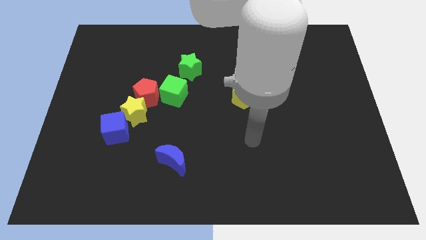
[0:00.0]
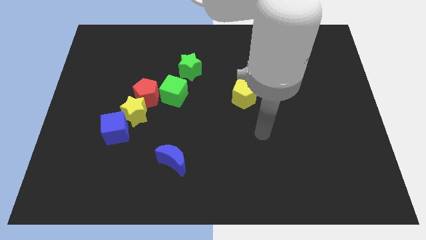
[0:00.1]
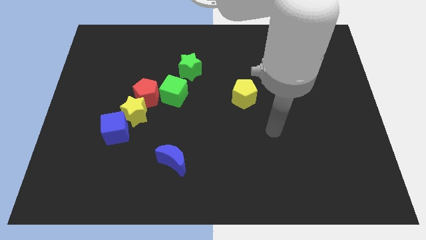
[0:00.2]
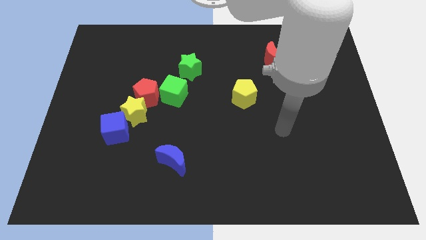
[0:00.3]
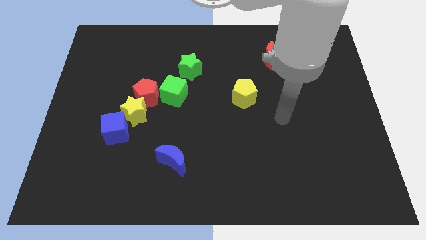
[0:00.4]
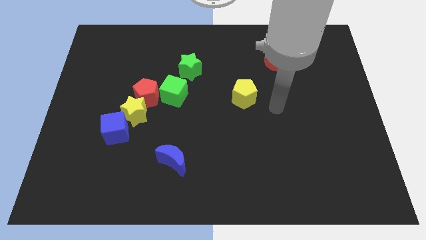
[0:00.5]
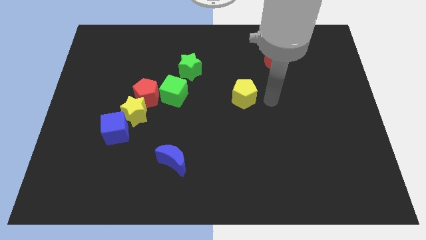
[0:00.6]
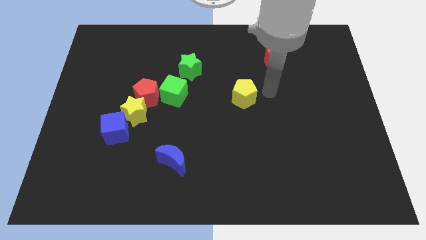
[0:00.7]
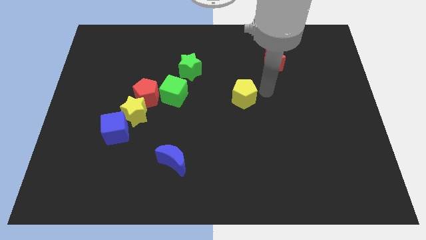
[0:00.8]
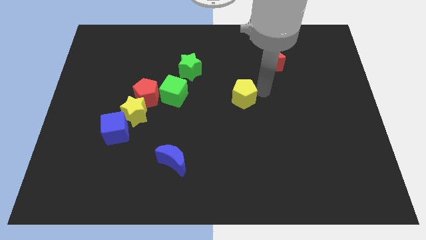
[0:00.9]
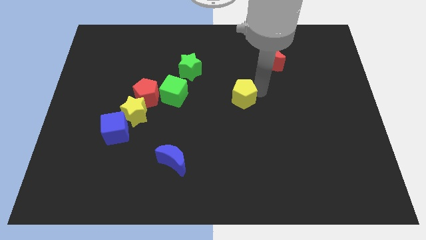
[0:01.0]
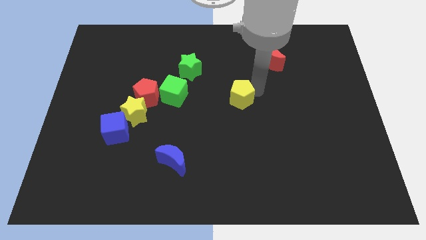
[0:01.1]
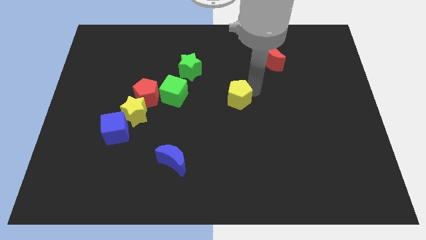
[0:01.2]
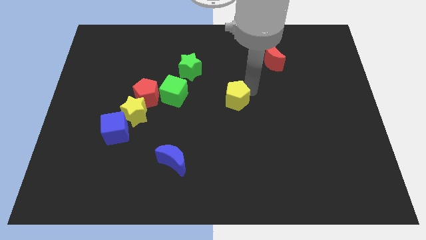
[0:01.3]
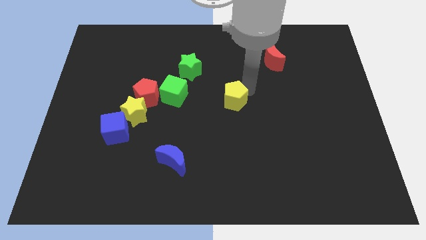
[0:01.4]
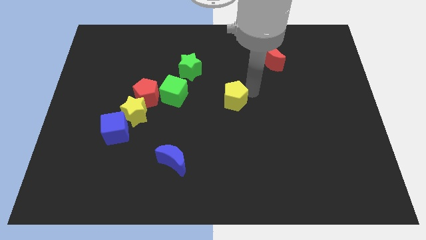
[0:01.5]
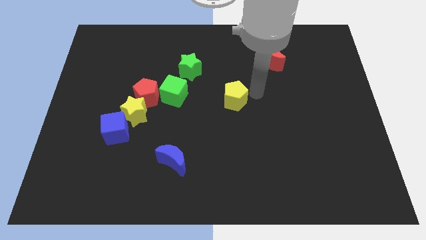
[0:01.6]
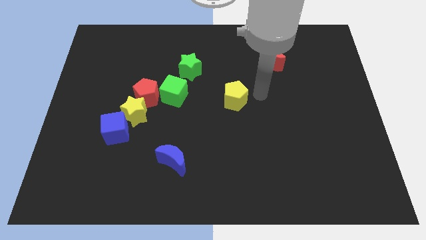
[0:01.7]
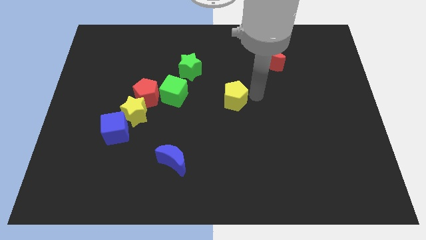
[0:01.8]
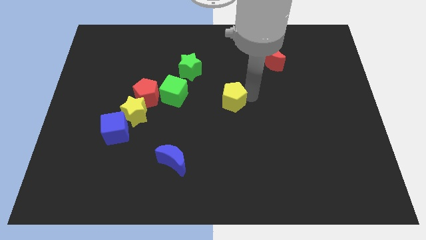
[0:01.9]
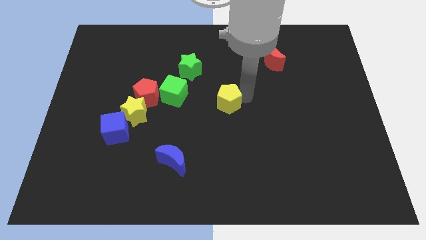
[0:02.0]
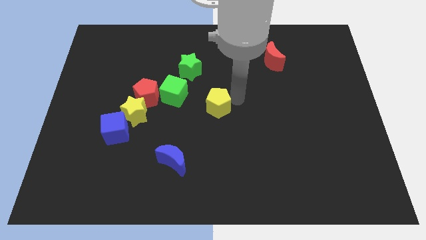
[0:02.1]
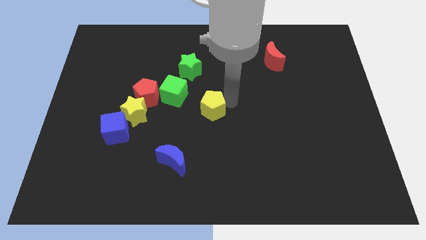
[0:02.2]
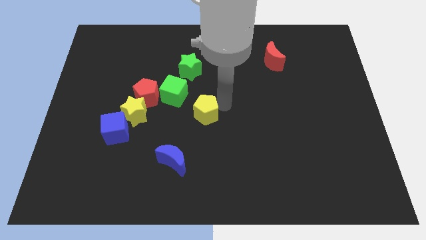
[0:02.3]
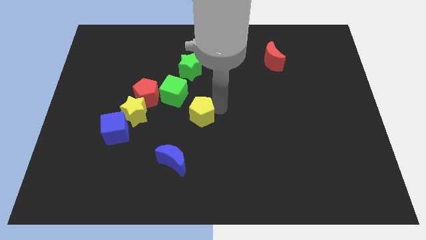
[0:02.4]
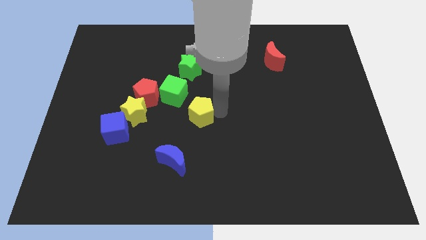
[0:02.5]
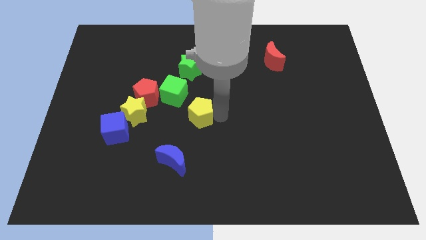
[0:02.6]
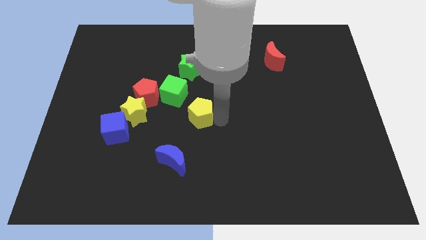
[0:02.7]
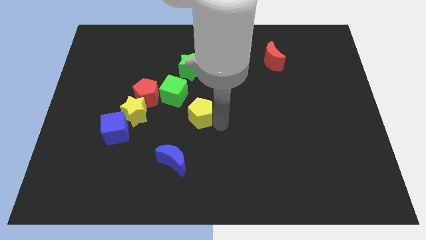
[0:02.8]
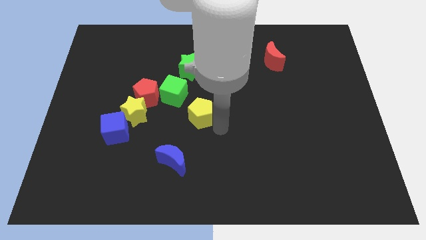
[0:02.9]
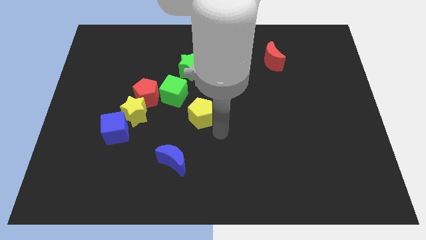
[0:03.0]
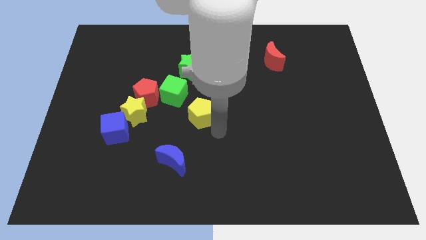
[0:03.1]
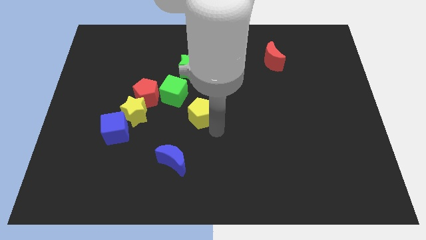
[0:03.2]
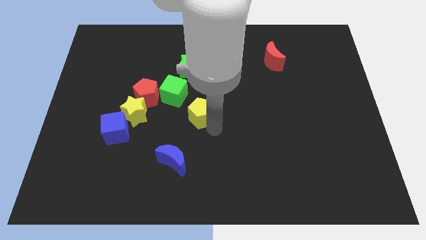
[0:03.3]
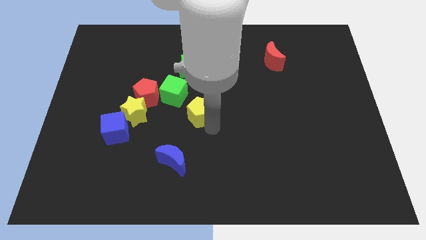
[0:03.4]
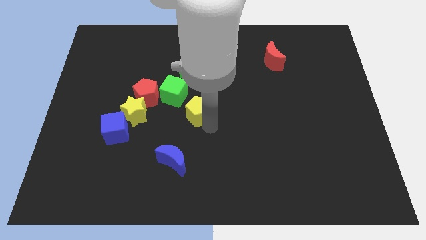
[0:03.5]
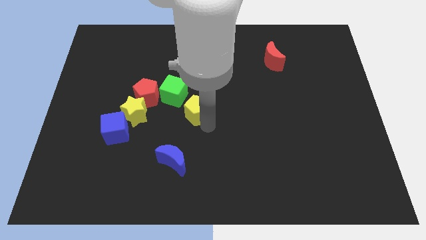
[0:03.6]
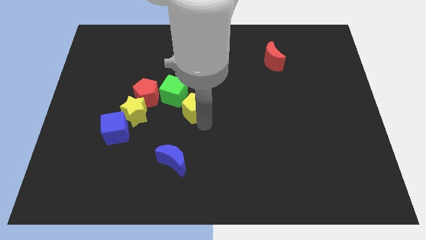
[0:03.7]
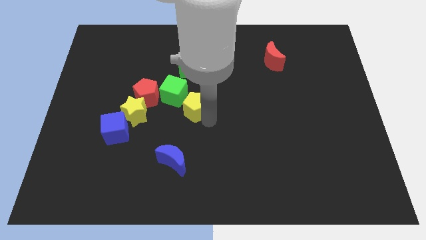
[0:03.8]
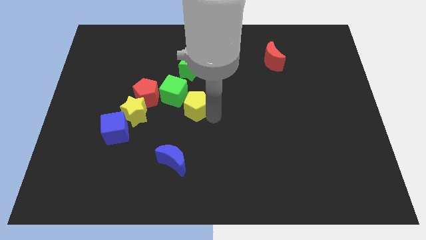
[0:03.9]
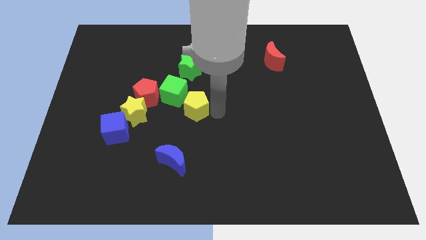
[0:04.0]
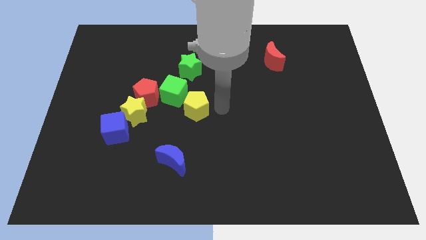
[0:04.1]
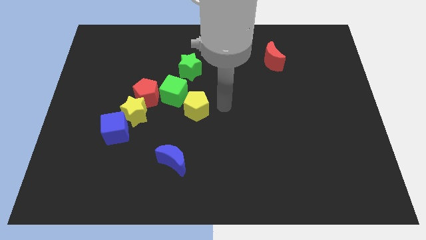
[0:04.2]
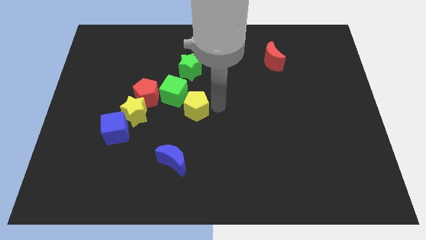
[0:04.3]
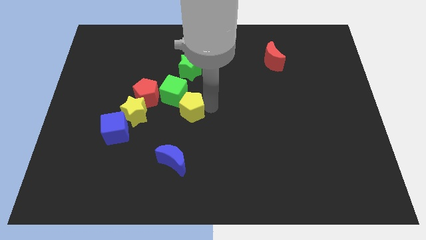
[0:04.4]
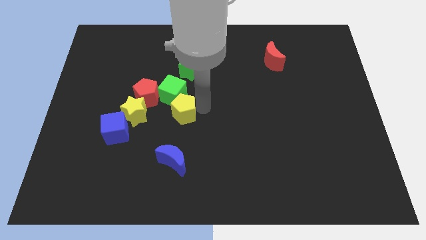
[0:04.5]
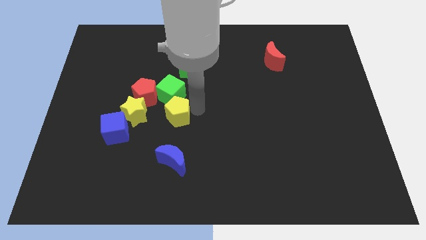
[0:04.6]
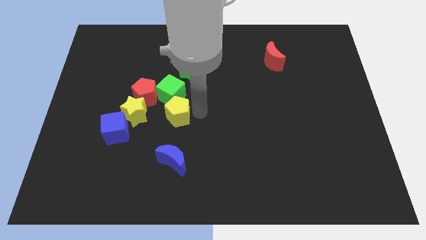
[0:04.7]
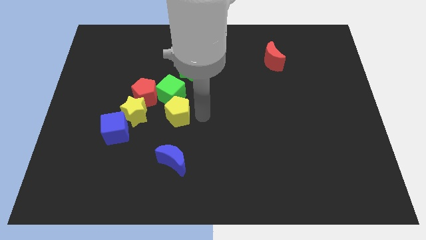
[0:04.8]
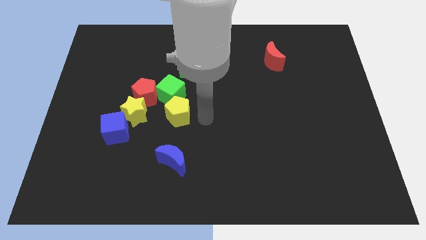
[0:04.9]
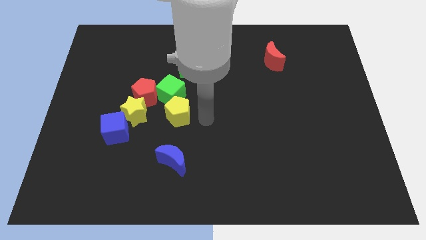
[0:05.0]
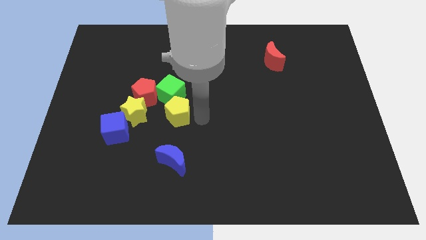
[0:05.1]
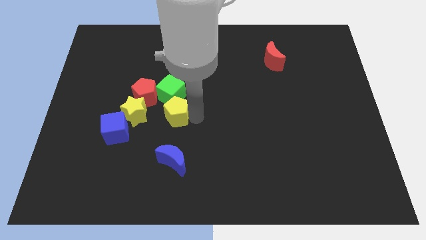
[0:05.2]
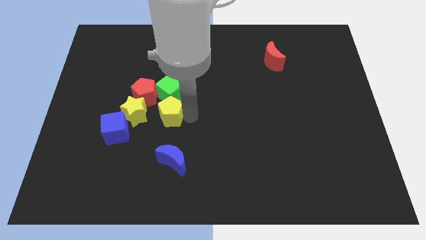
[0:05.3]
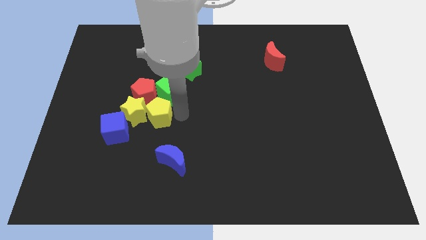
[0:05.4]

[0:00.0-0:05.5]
slide the yellow pentagon close to the yellow star

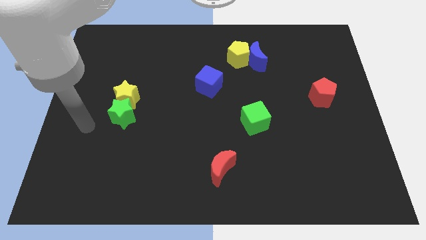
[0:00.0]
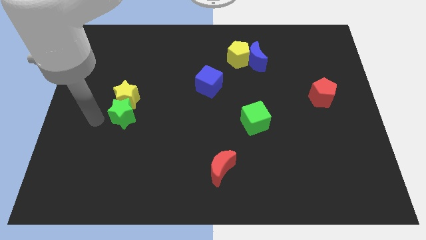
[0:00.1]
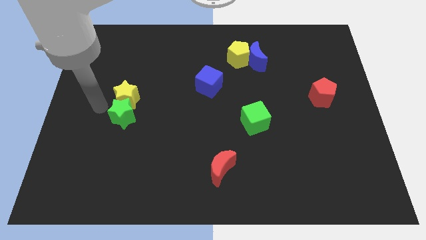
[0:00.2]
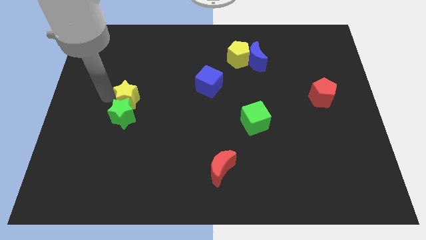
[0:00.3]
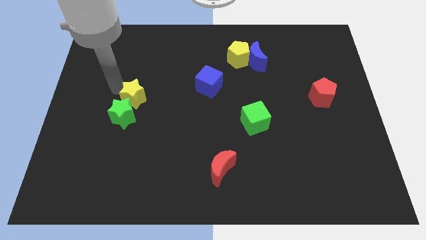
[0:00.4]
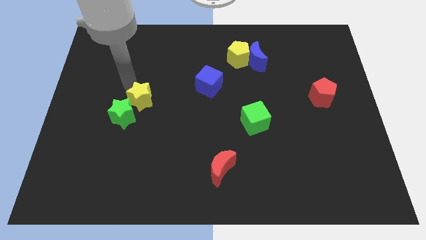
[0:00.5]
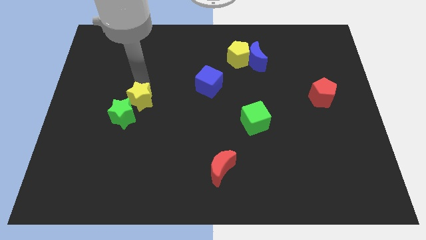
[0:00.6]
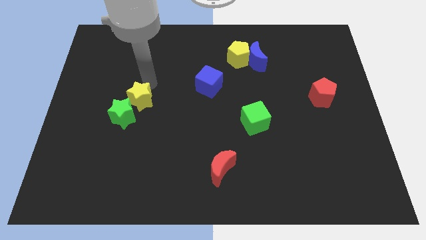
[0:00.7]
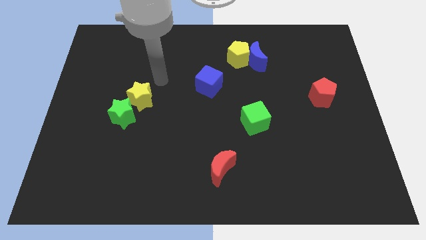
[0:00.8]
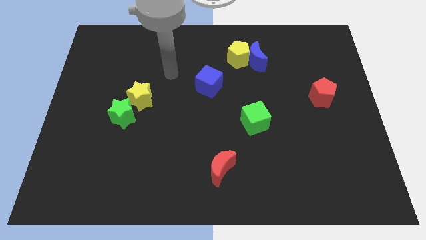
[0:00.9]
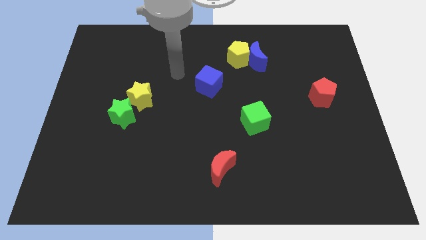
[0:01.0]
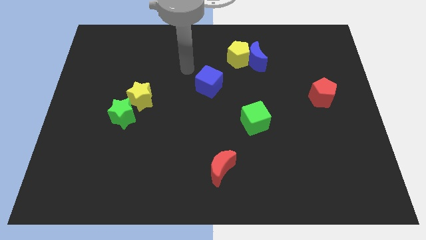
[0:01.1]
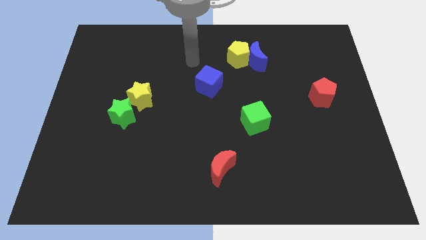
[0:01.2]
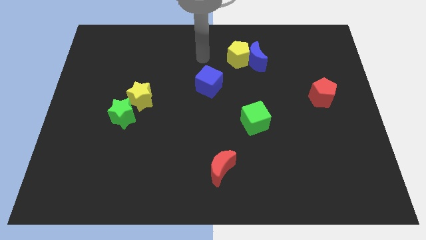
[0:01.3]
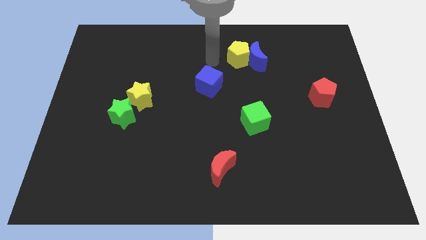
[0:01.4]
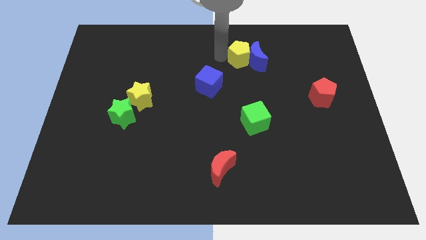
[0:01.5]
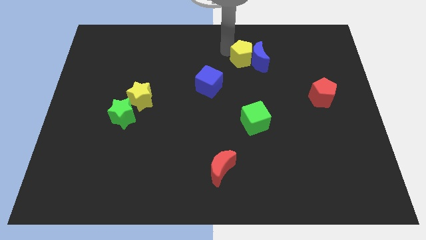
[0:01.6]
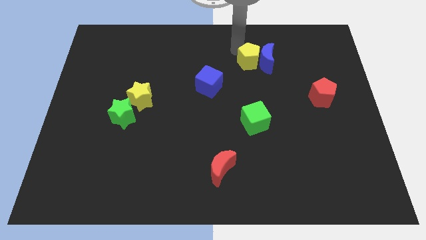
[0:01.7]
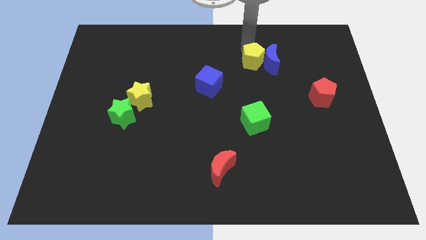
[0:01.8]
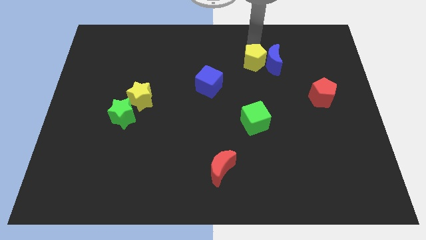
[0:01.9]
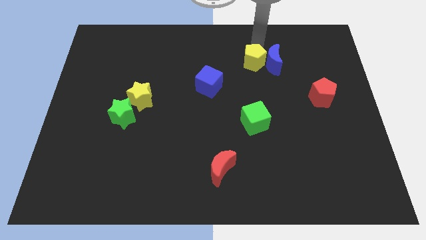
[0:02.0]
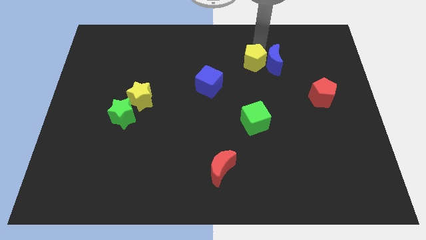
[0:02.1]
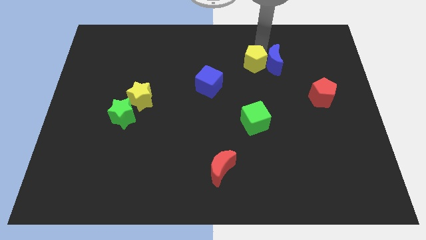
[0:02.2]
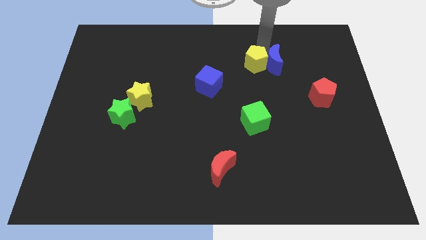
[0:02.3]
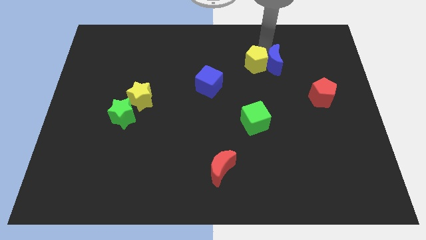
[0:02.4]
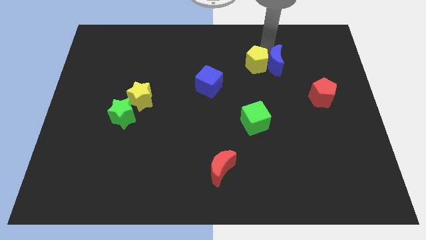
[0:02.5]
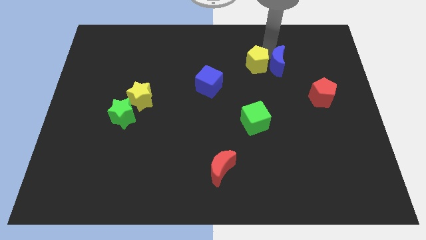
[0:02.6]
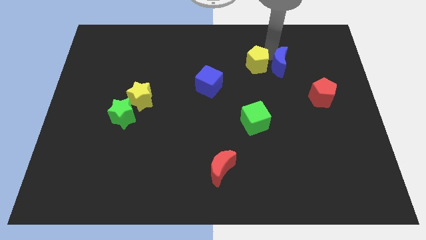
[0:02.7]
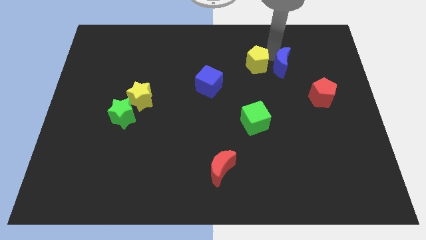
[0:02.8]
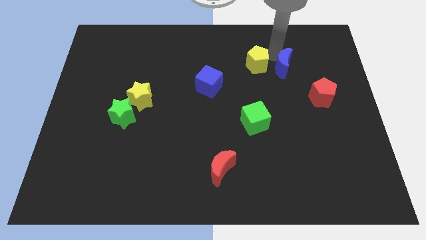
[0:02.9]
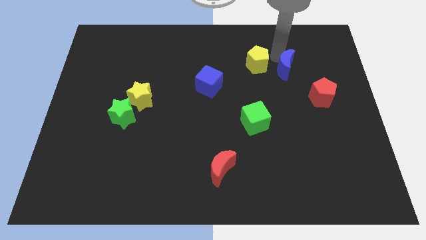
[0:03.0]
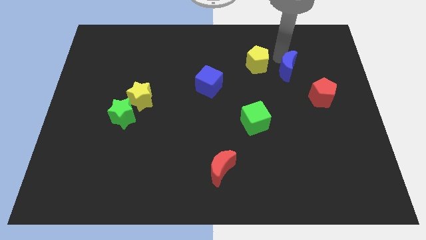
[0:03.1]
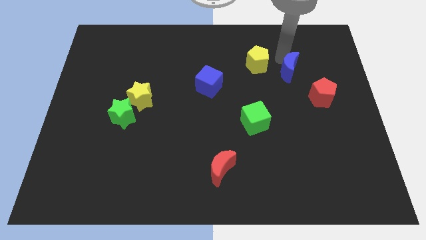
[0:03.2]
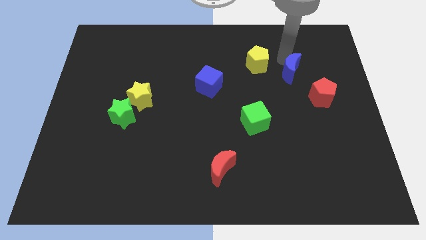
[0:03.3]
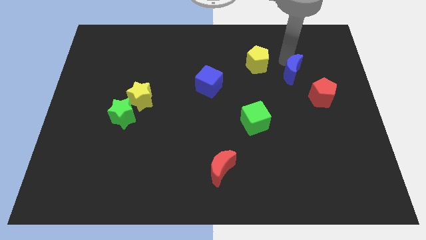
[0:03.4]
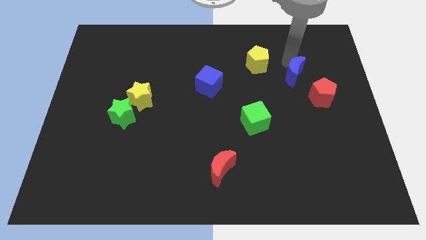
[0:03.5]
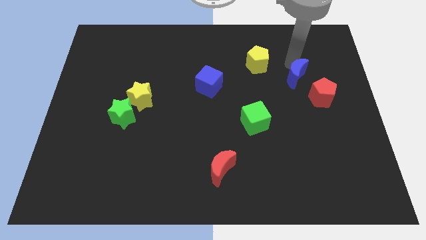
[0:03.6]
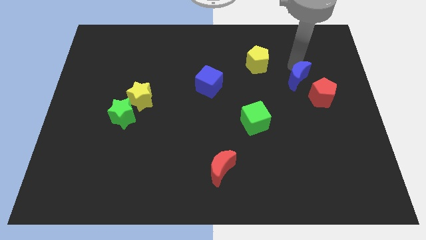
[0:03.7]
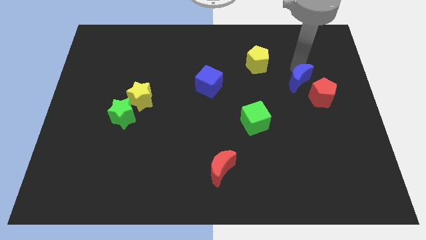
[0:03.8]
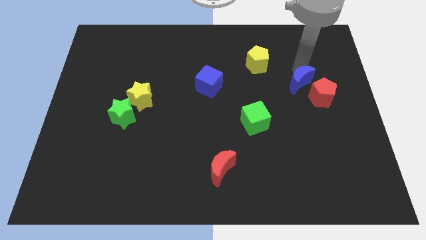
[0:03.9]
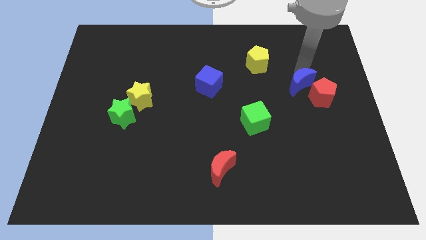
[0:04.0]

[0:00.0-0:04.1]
put the blue moon towards the red pentagon
